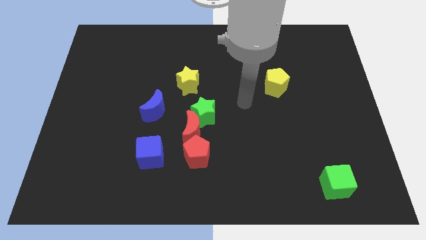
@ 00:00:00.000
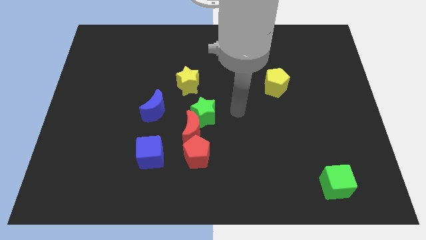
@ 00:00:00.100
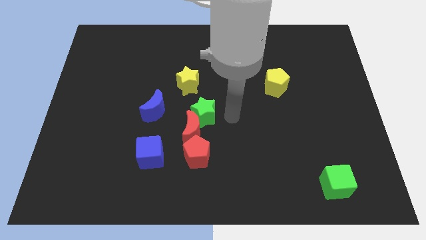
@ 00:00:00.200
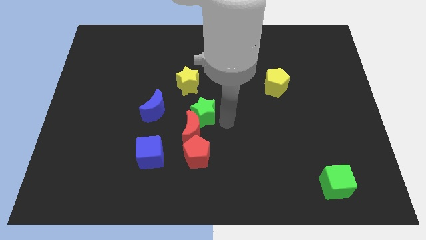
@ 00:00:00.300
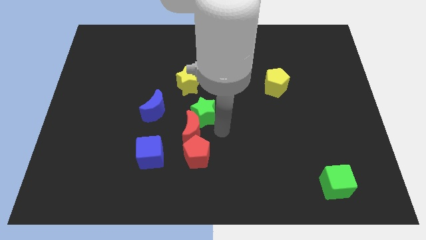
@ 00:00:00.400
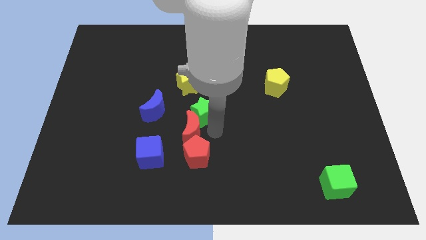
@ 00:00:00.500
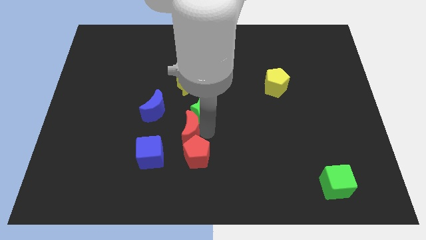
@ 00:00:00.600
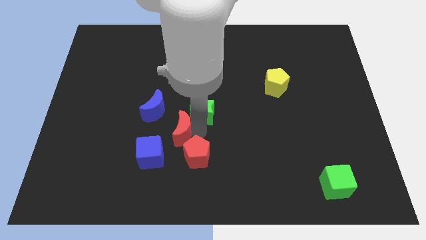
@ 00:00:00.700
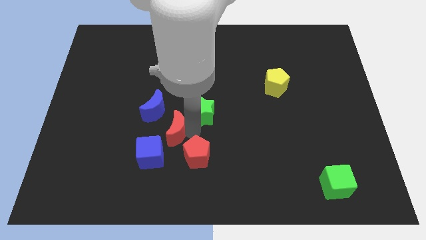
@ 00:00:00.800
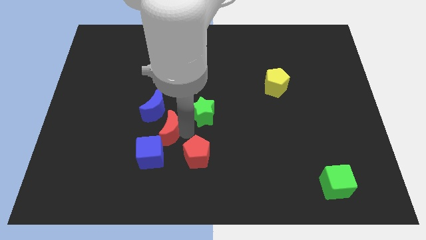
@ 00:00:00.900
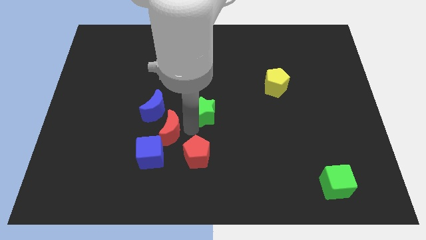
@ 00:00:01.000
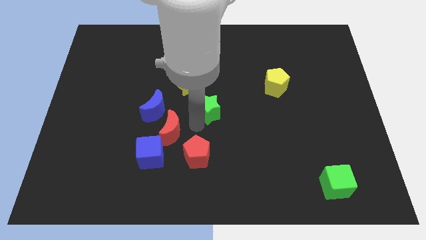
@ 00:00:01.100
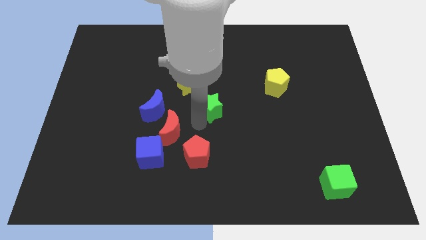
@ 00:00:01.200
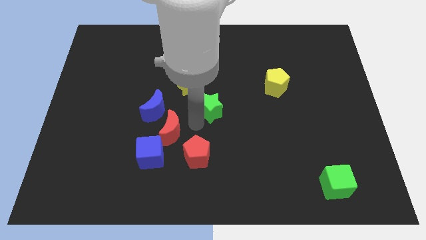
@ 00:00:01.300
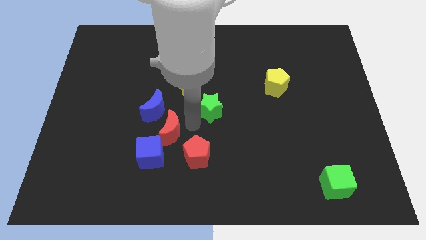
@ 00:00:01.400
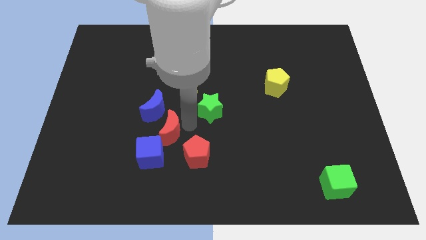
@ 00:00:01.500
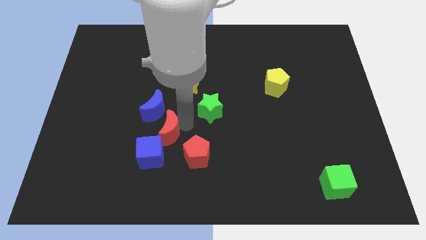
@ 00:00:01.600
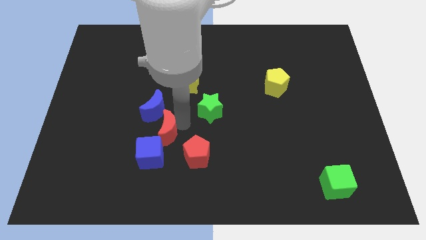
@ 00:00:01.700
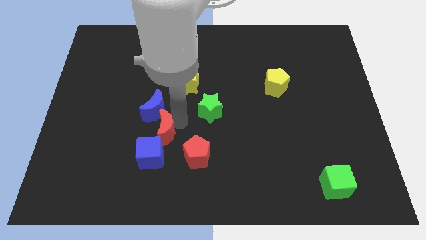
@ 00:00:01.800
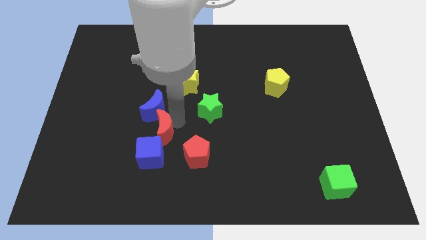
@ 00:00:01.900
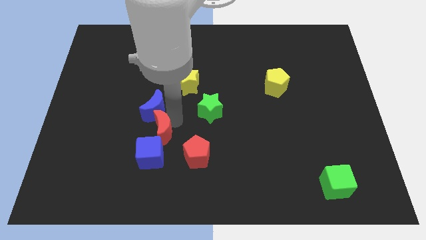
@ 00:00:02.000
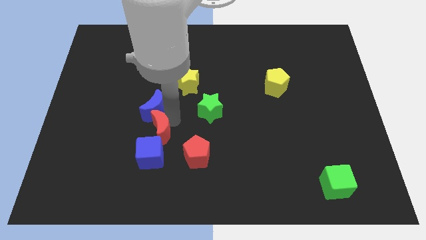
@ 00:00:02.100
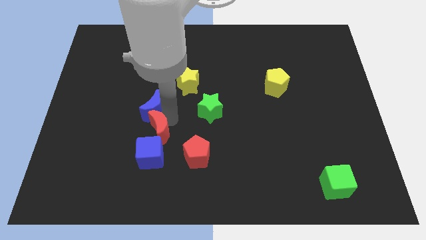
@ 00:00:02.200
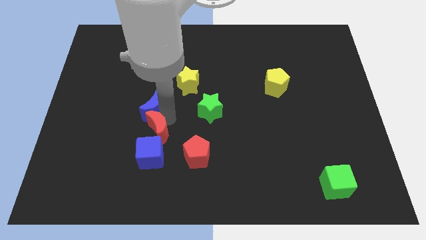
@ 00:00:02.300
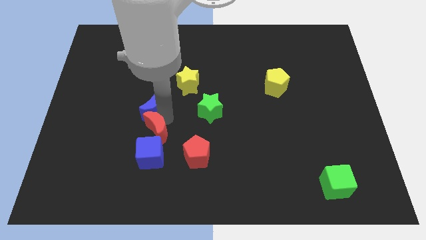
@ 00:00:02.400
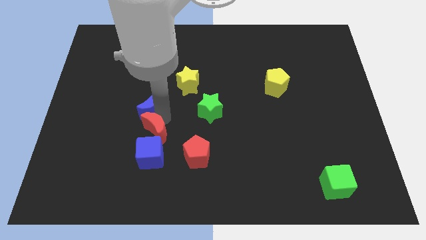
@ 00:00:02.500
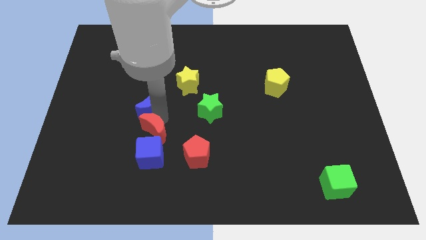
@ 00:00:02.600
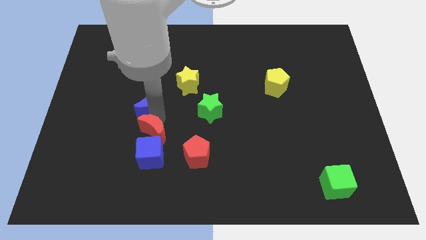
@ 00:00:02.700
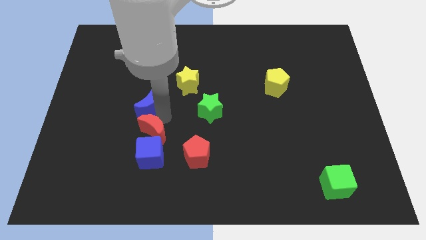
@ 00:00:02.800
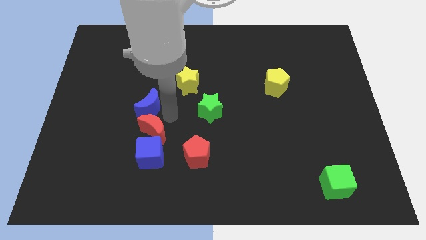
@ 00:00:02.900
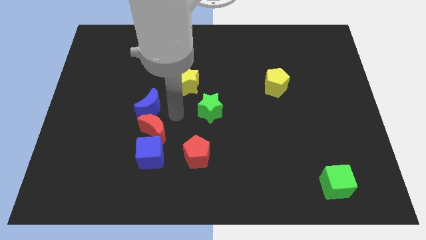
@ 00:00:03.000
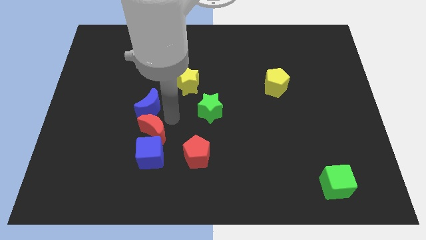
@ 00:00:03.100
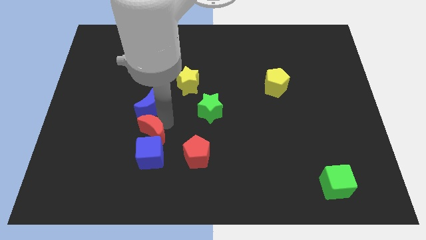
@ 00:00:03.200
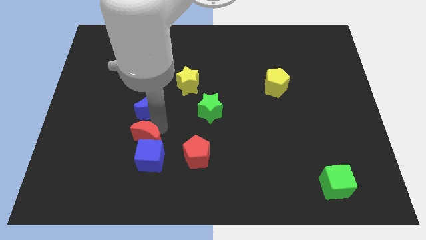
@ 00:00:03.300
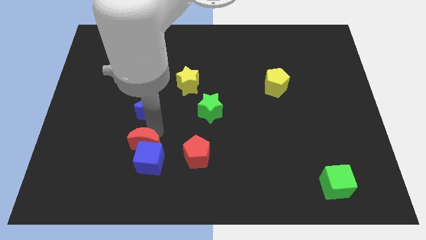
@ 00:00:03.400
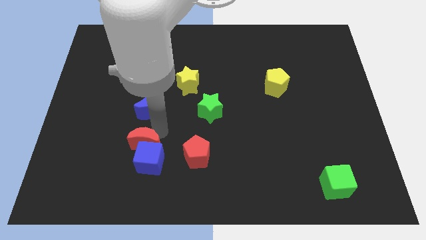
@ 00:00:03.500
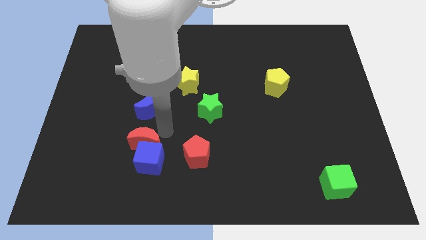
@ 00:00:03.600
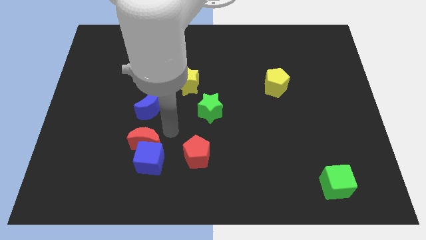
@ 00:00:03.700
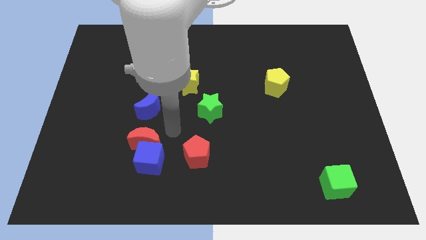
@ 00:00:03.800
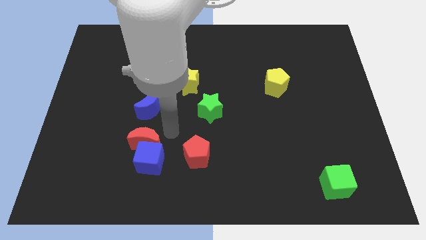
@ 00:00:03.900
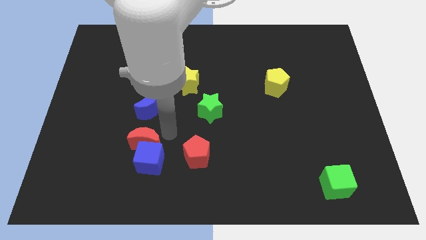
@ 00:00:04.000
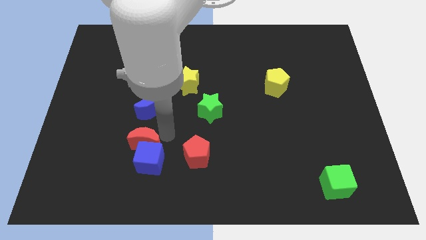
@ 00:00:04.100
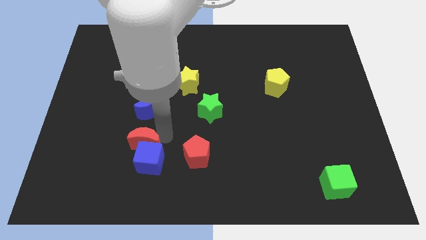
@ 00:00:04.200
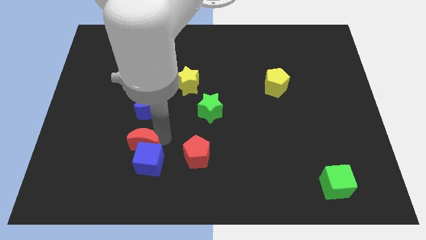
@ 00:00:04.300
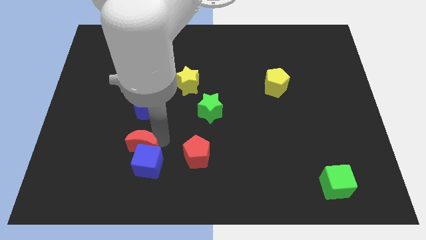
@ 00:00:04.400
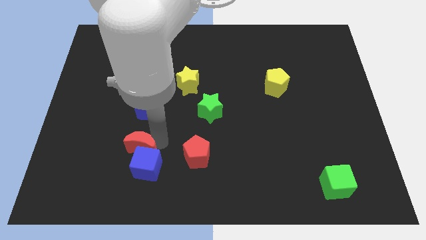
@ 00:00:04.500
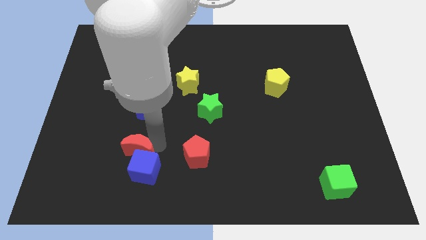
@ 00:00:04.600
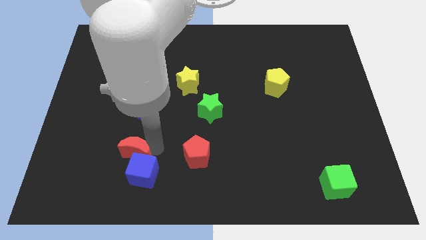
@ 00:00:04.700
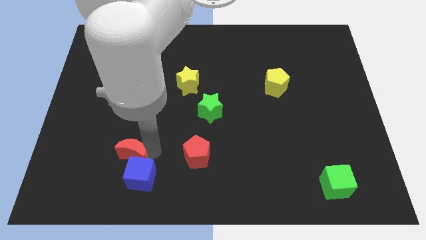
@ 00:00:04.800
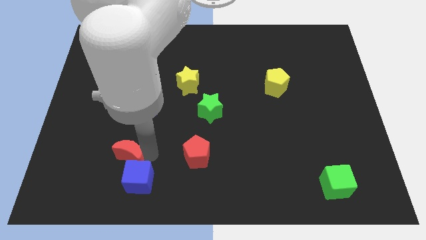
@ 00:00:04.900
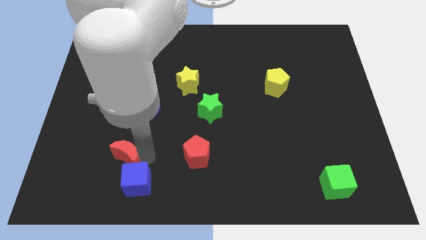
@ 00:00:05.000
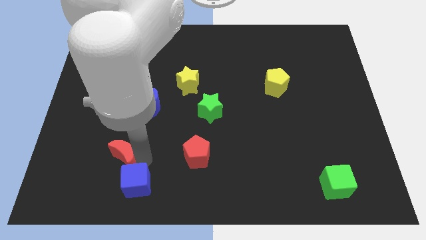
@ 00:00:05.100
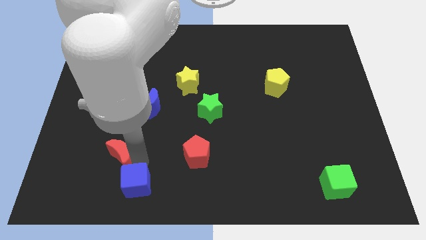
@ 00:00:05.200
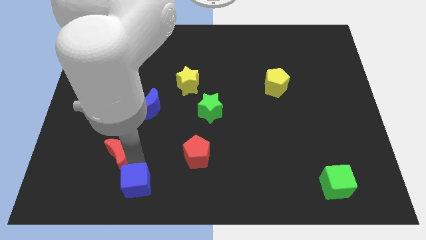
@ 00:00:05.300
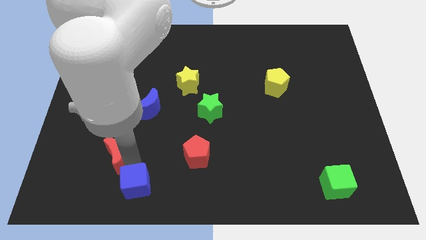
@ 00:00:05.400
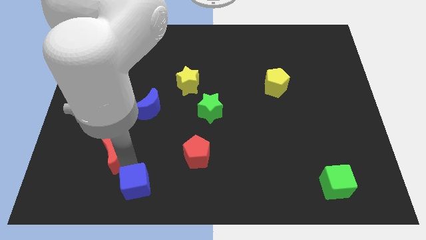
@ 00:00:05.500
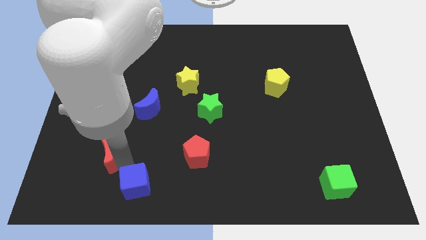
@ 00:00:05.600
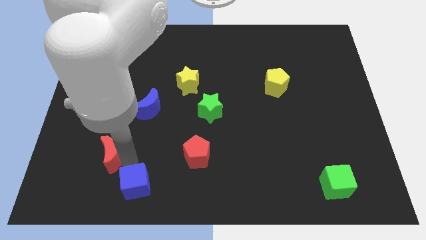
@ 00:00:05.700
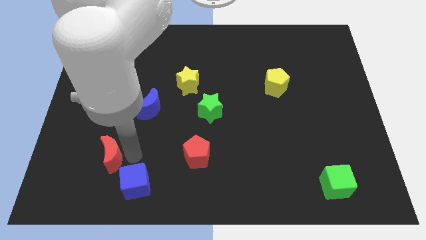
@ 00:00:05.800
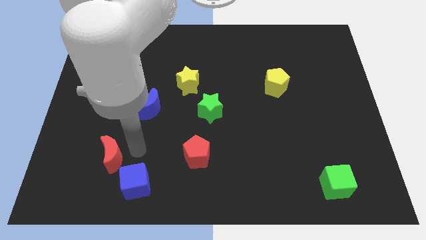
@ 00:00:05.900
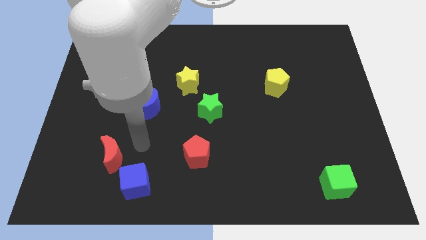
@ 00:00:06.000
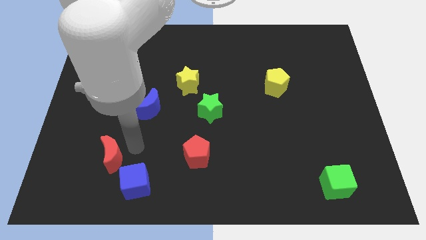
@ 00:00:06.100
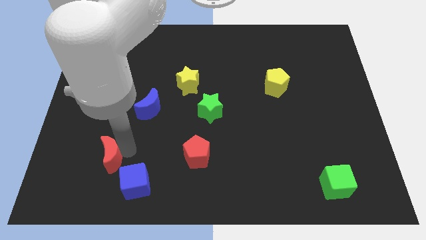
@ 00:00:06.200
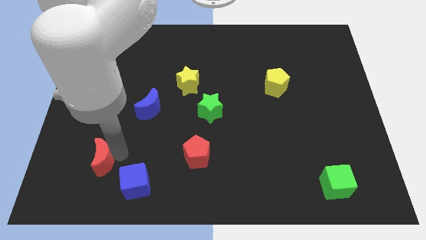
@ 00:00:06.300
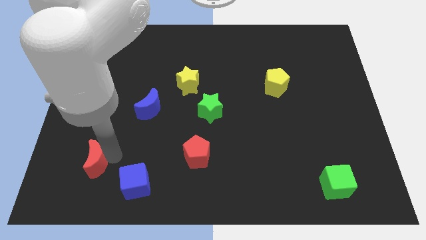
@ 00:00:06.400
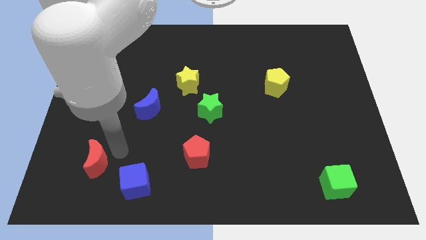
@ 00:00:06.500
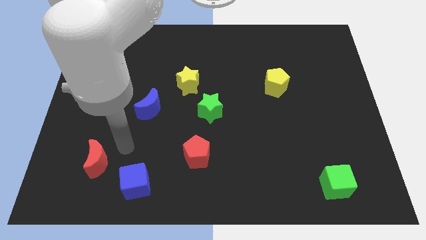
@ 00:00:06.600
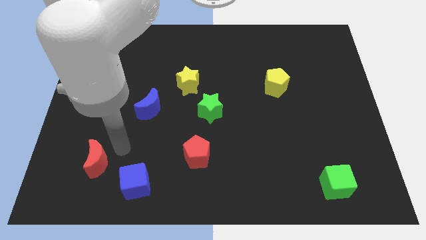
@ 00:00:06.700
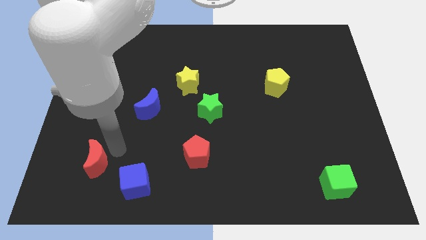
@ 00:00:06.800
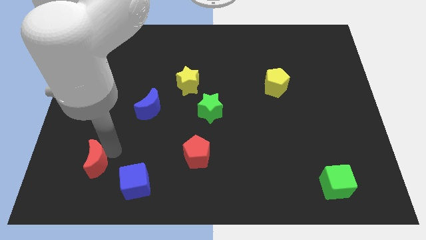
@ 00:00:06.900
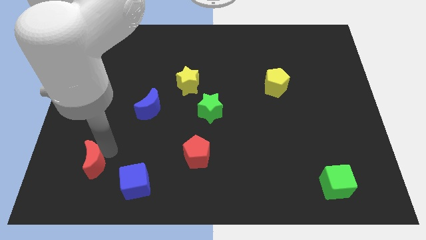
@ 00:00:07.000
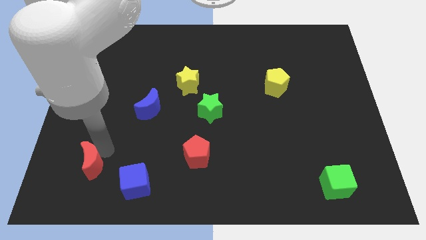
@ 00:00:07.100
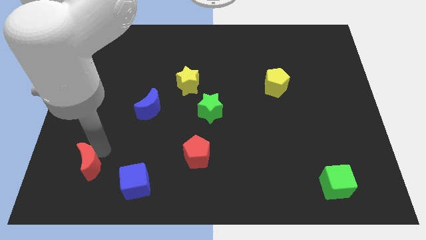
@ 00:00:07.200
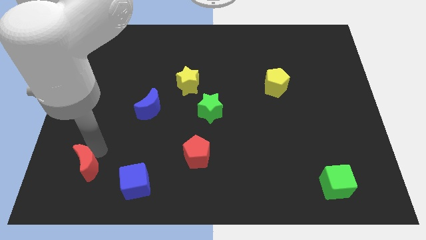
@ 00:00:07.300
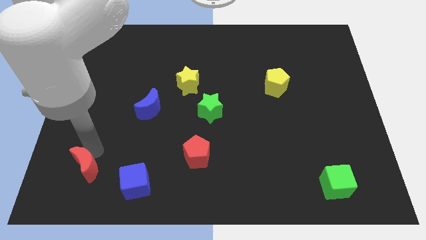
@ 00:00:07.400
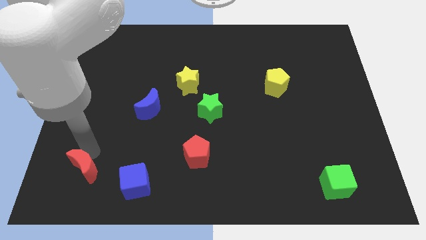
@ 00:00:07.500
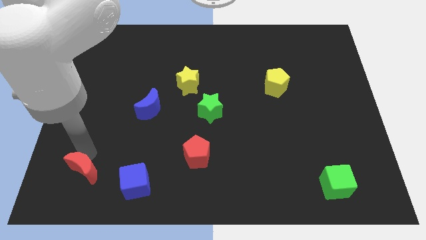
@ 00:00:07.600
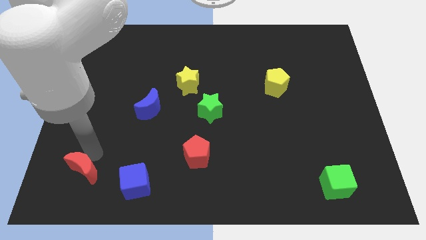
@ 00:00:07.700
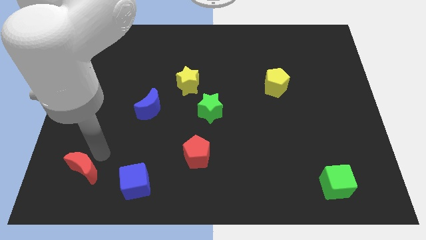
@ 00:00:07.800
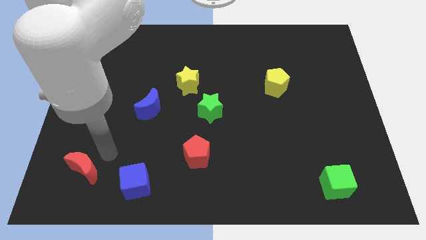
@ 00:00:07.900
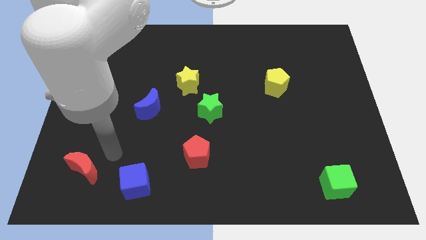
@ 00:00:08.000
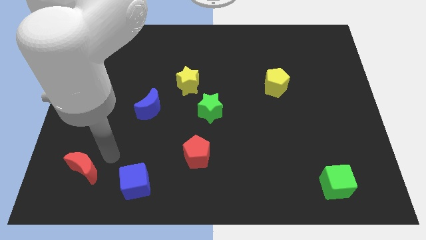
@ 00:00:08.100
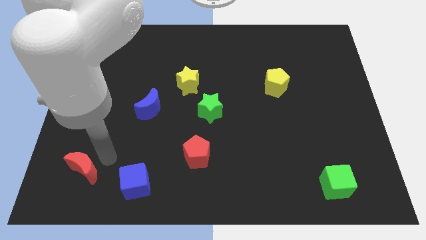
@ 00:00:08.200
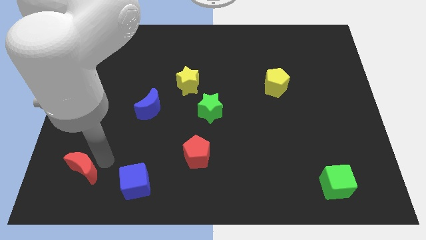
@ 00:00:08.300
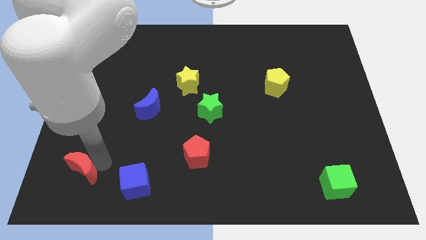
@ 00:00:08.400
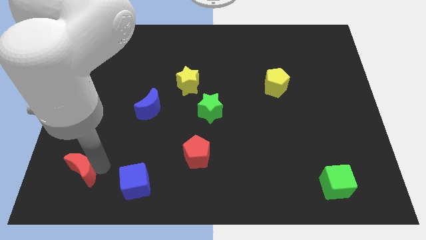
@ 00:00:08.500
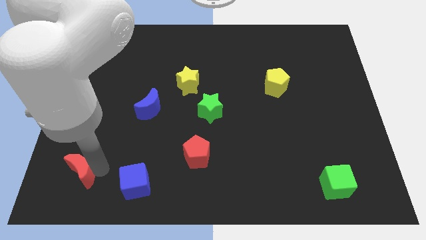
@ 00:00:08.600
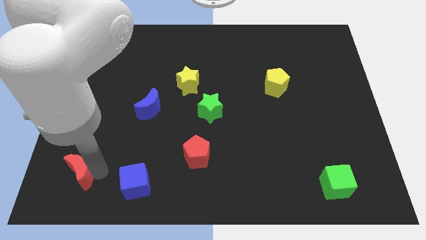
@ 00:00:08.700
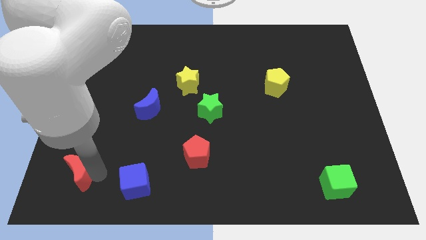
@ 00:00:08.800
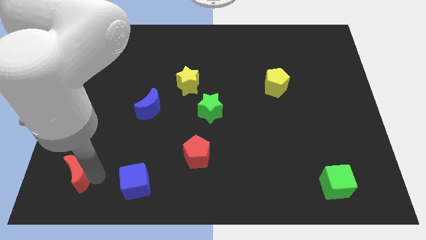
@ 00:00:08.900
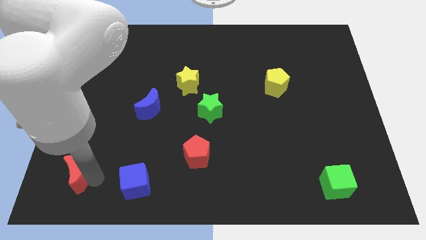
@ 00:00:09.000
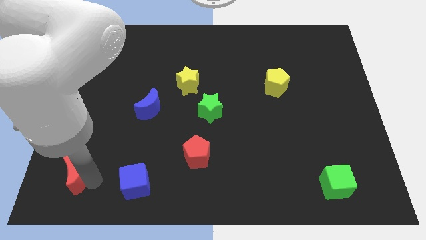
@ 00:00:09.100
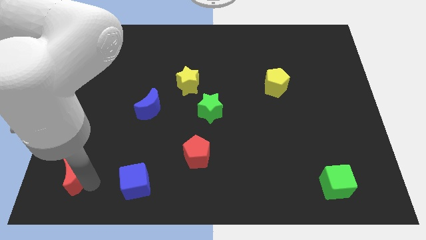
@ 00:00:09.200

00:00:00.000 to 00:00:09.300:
slide the red moon to the bottom left
